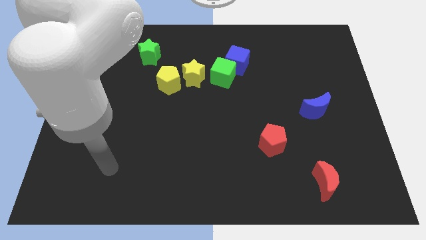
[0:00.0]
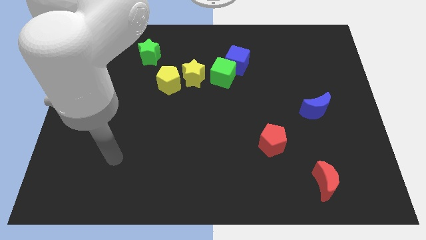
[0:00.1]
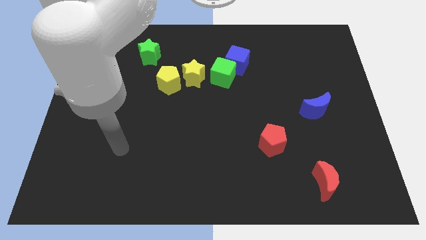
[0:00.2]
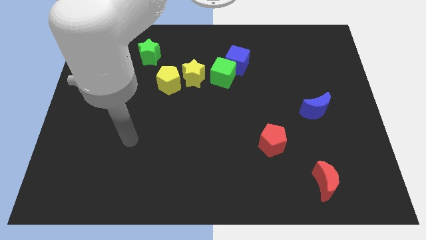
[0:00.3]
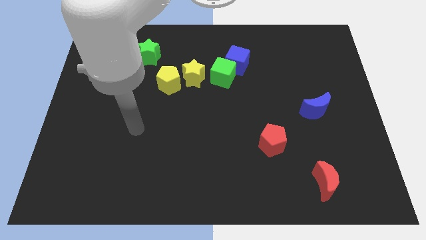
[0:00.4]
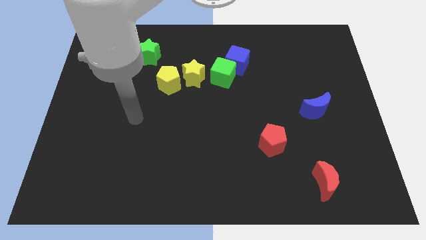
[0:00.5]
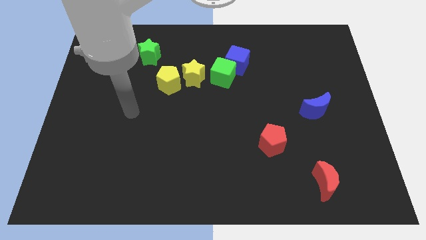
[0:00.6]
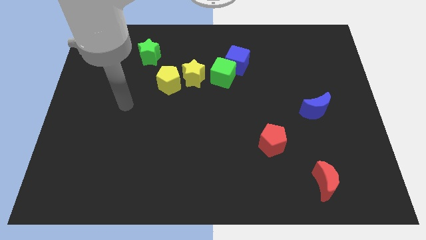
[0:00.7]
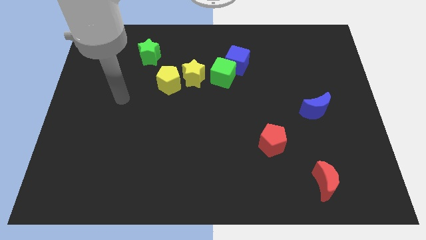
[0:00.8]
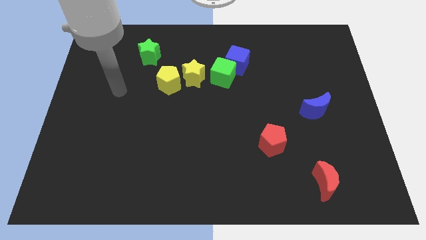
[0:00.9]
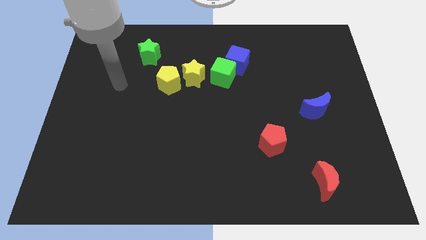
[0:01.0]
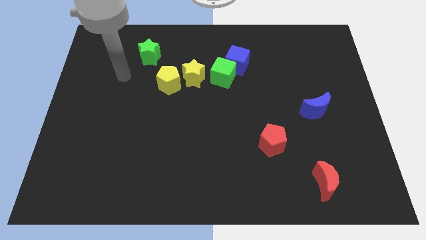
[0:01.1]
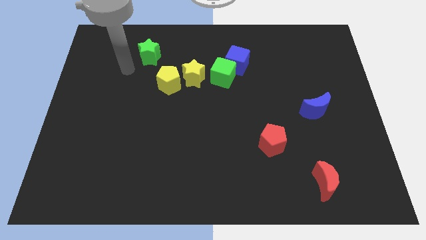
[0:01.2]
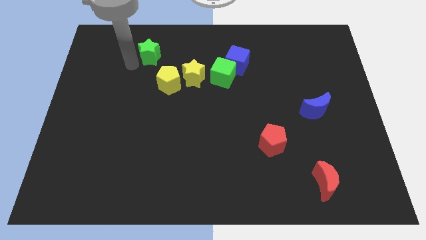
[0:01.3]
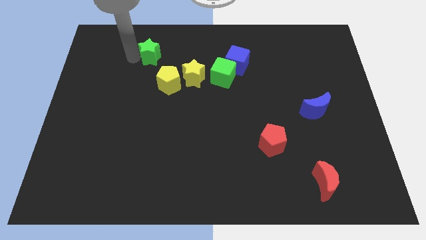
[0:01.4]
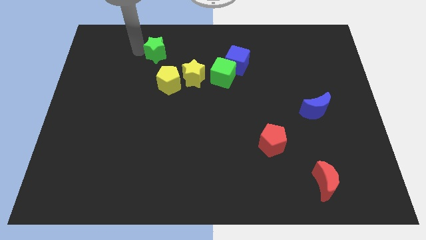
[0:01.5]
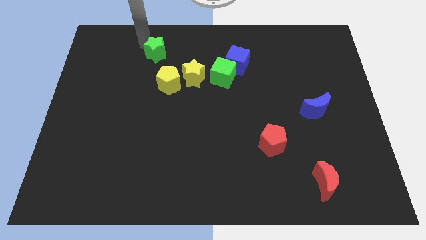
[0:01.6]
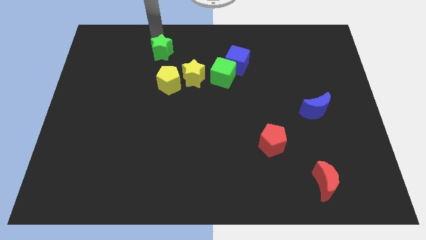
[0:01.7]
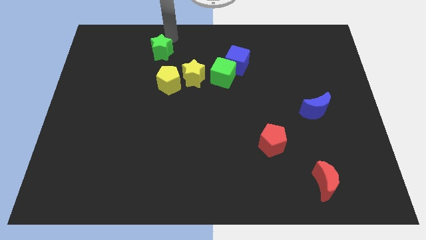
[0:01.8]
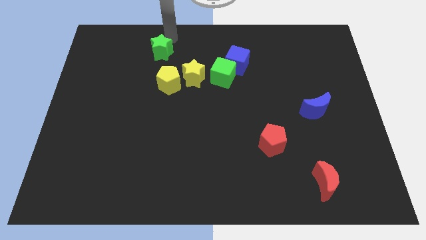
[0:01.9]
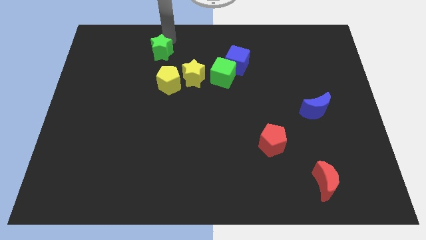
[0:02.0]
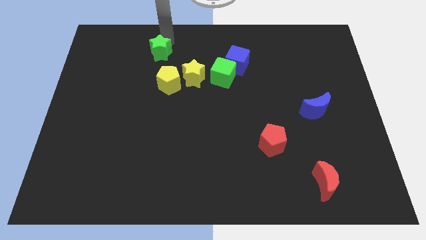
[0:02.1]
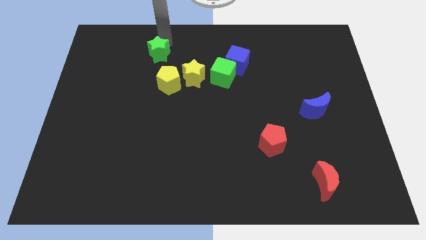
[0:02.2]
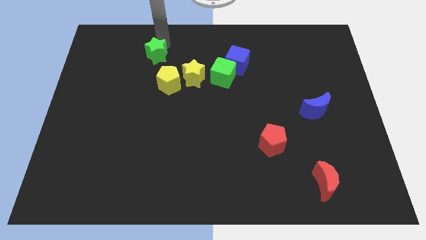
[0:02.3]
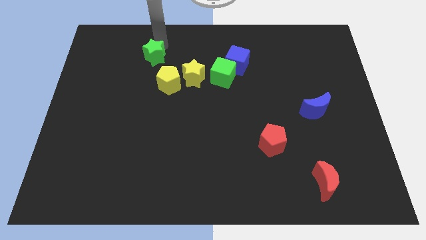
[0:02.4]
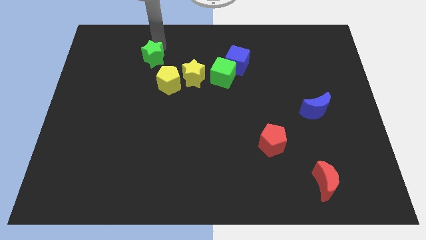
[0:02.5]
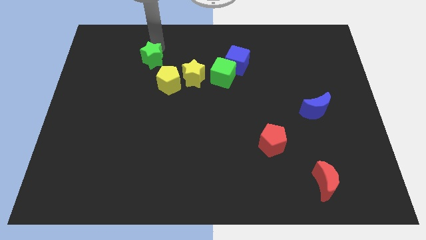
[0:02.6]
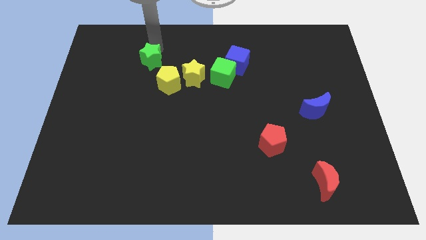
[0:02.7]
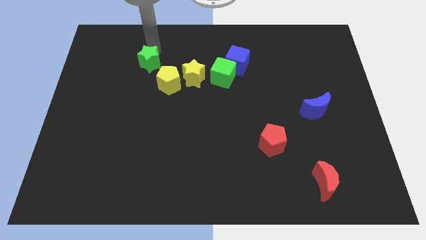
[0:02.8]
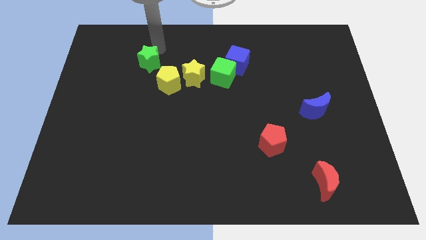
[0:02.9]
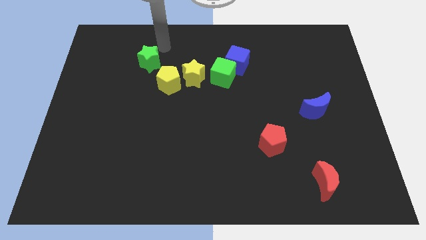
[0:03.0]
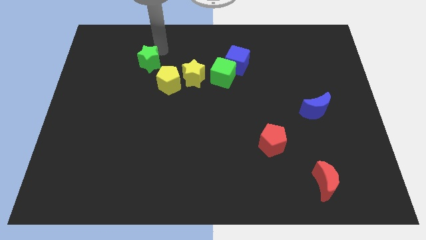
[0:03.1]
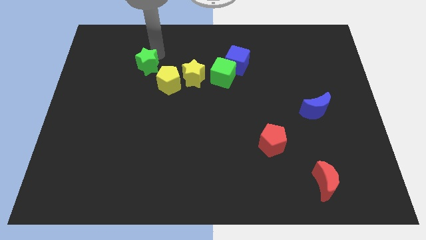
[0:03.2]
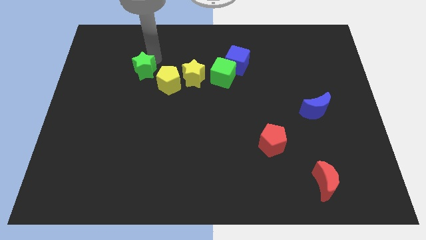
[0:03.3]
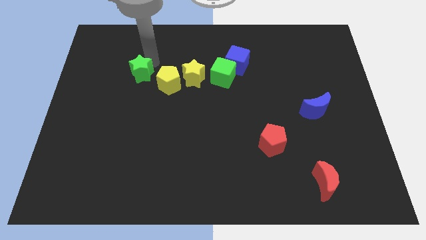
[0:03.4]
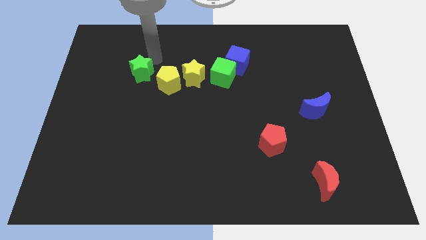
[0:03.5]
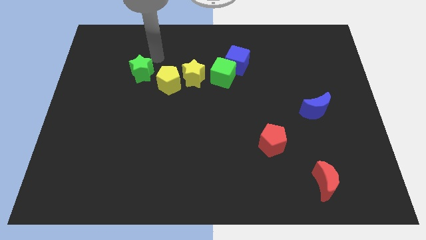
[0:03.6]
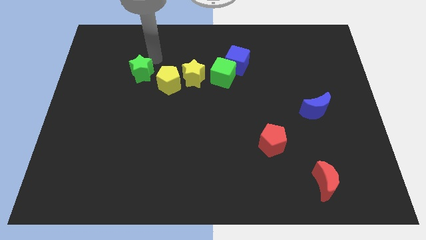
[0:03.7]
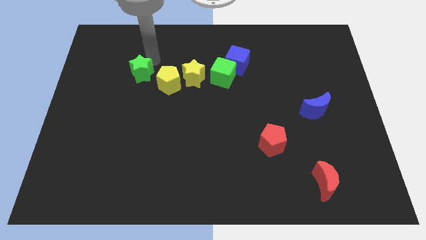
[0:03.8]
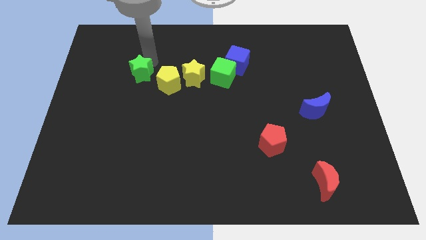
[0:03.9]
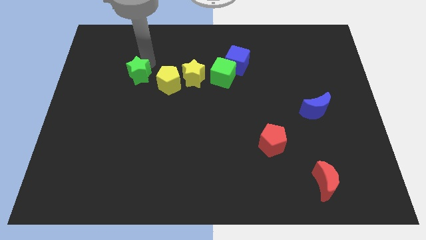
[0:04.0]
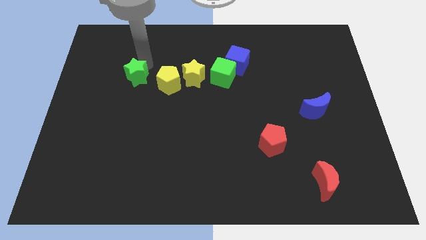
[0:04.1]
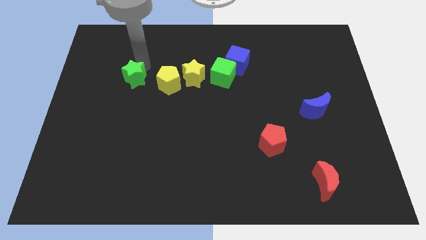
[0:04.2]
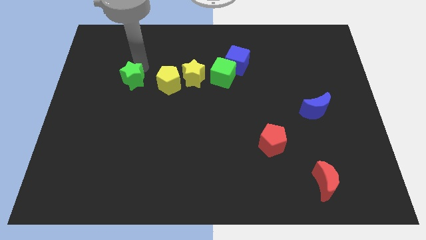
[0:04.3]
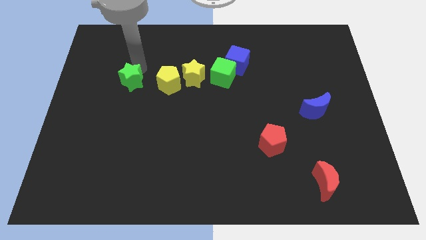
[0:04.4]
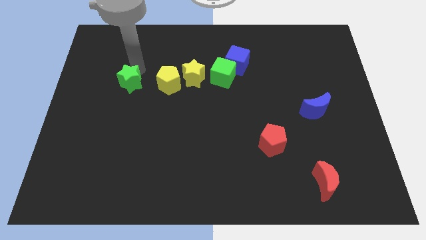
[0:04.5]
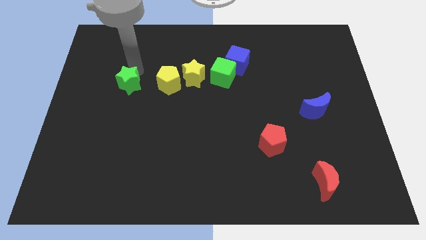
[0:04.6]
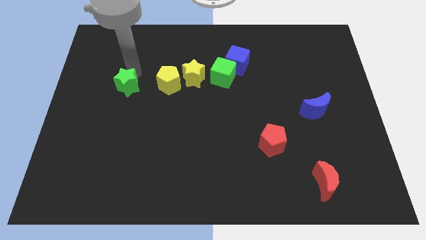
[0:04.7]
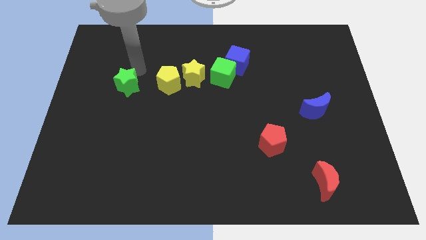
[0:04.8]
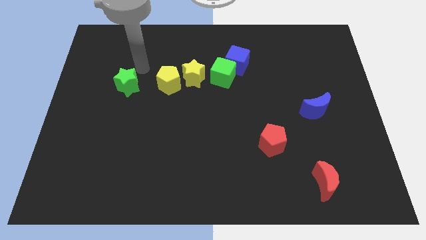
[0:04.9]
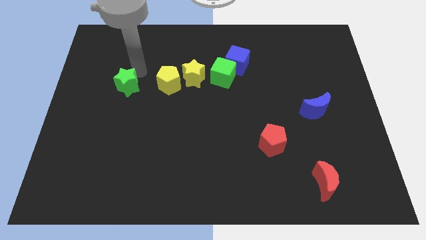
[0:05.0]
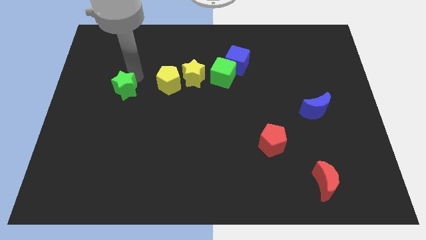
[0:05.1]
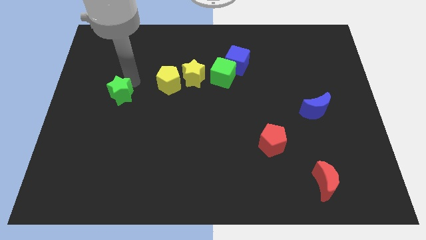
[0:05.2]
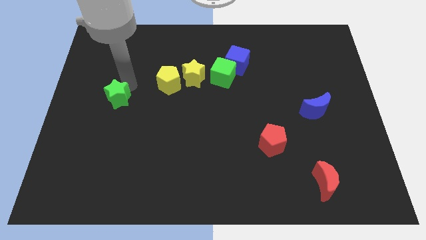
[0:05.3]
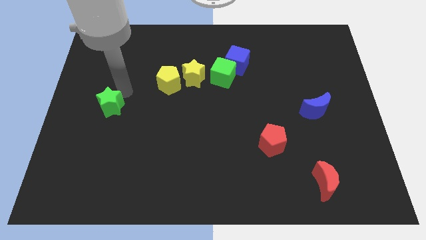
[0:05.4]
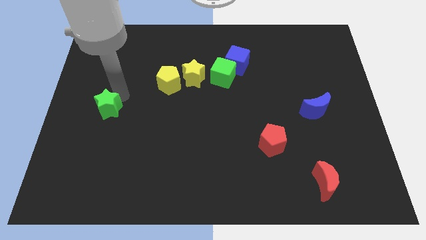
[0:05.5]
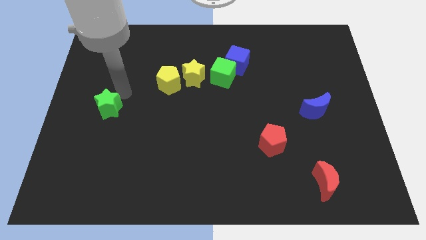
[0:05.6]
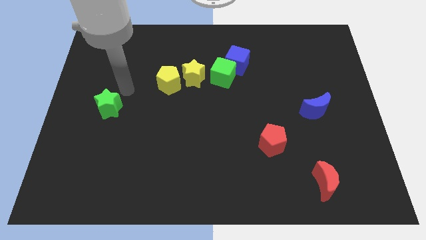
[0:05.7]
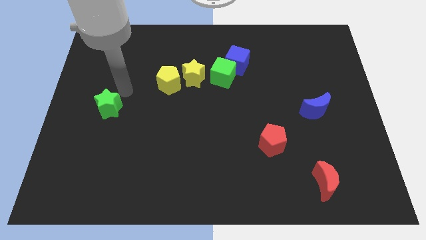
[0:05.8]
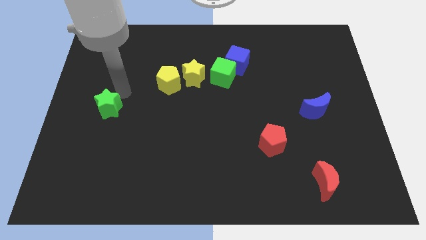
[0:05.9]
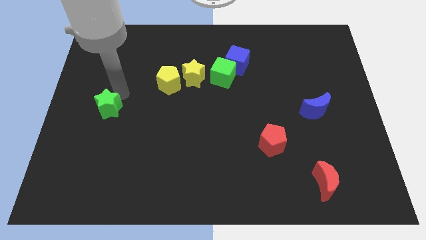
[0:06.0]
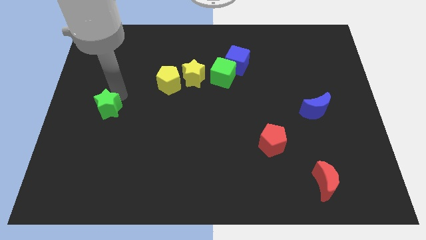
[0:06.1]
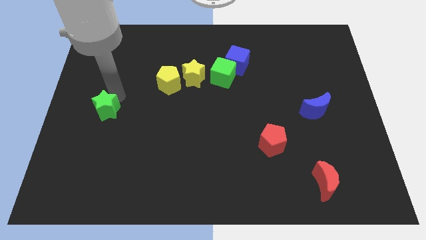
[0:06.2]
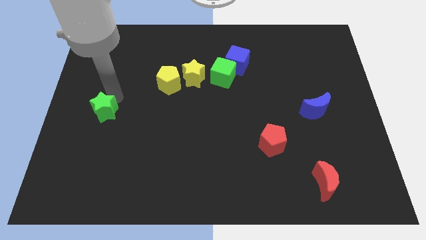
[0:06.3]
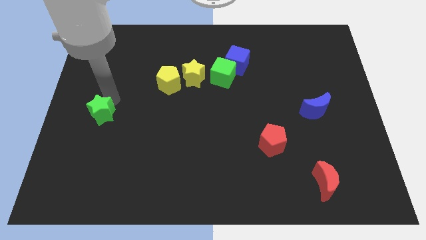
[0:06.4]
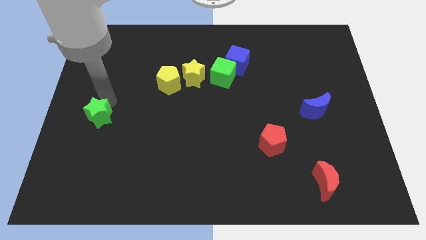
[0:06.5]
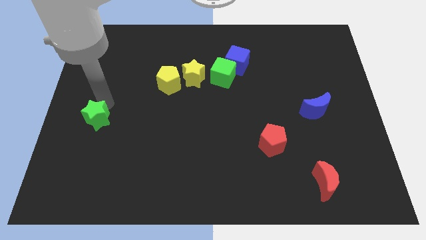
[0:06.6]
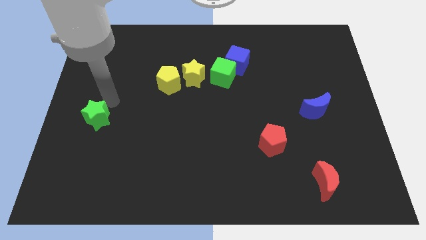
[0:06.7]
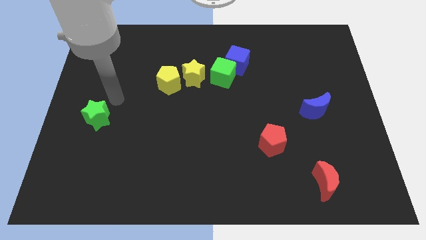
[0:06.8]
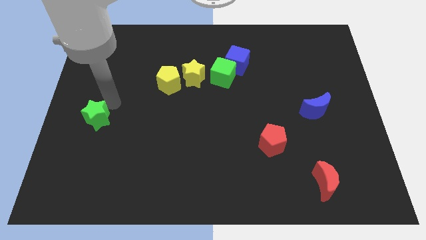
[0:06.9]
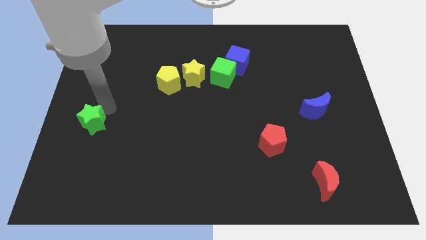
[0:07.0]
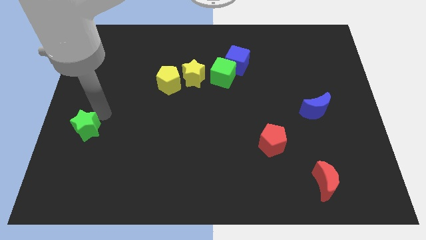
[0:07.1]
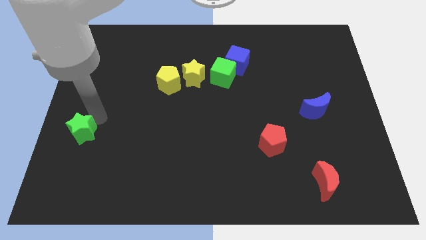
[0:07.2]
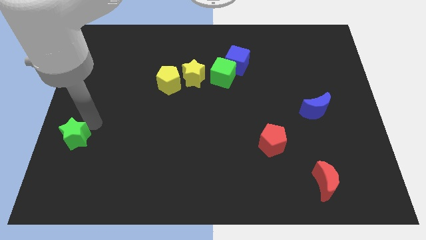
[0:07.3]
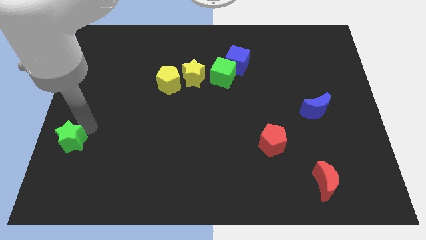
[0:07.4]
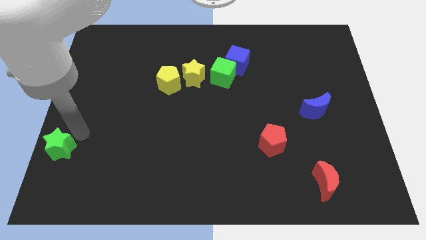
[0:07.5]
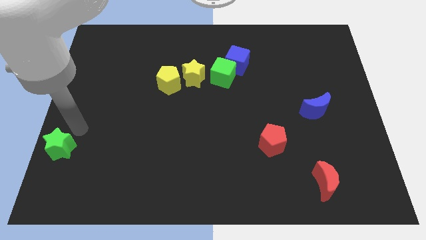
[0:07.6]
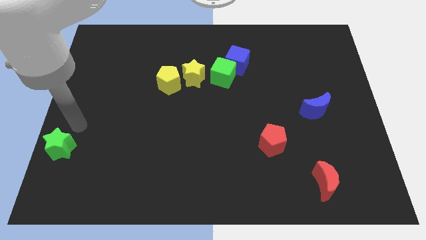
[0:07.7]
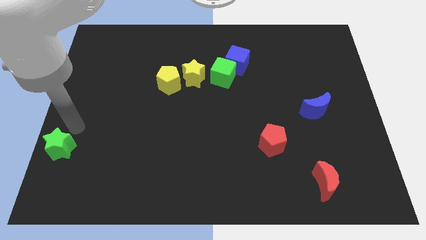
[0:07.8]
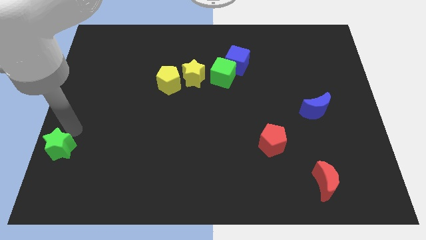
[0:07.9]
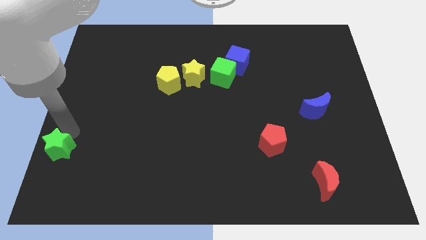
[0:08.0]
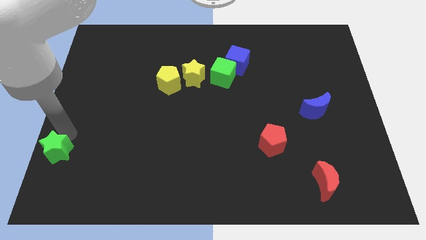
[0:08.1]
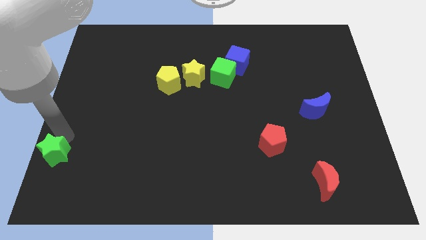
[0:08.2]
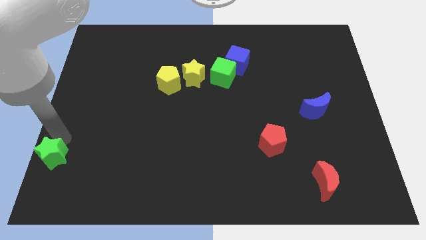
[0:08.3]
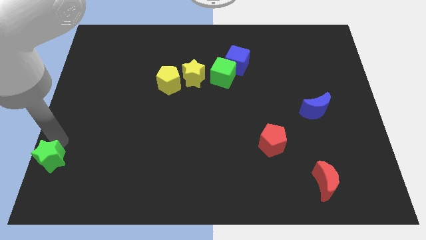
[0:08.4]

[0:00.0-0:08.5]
put the green star to the bottom left corner
